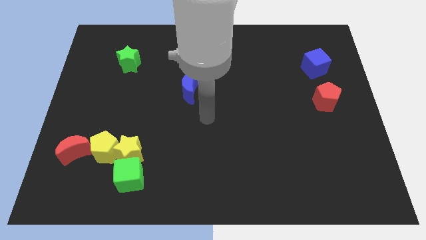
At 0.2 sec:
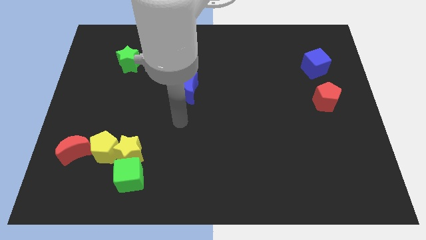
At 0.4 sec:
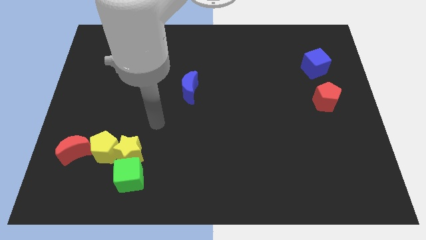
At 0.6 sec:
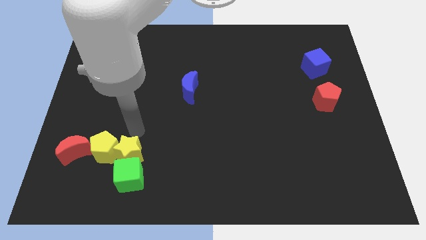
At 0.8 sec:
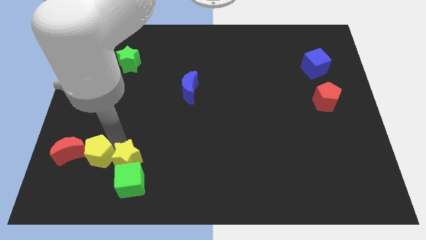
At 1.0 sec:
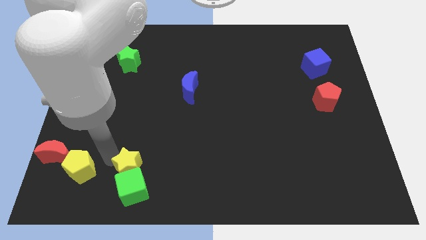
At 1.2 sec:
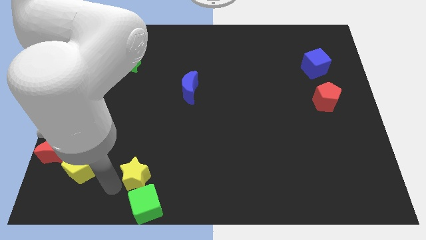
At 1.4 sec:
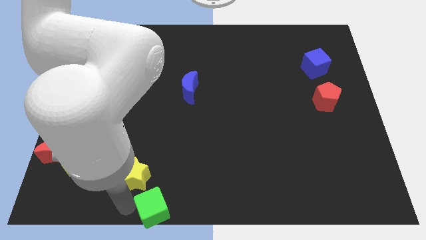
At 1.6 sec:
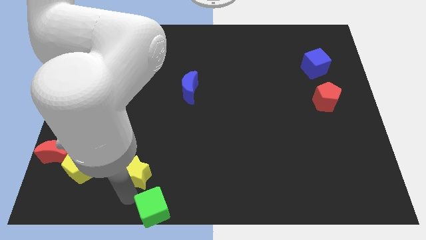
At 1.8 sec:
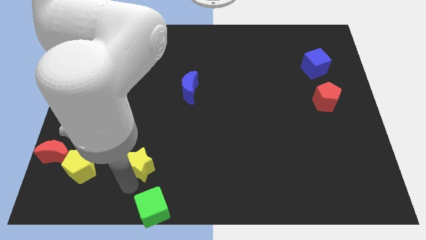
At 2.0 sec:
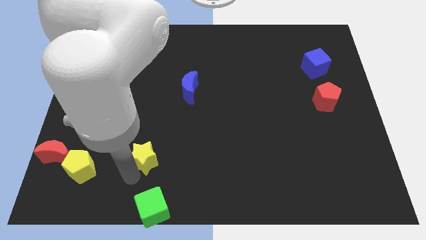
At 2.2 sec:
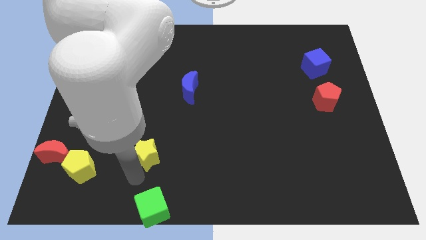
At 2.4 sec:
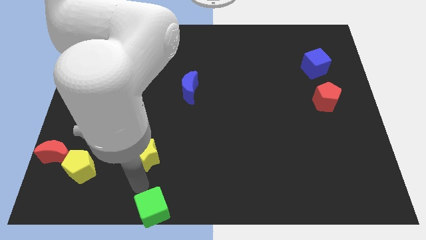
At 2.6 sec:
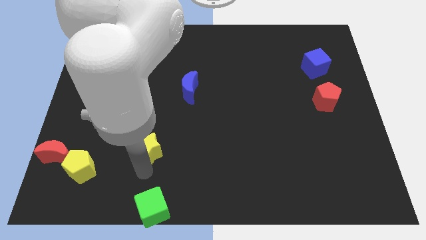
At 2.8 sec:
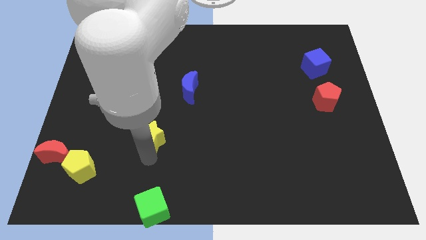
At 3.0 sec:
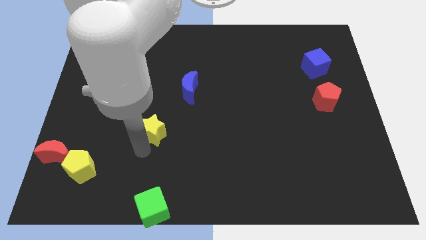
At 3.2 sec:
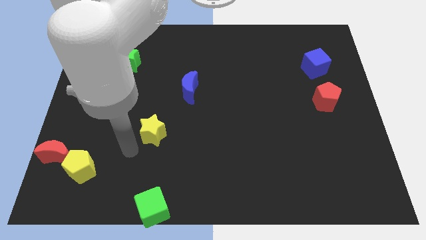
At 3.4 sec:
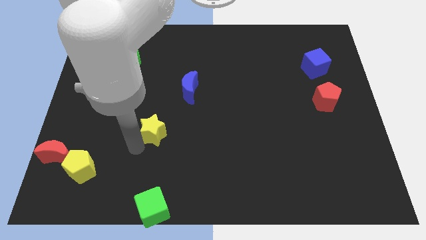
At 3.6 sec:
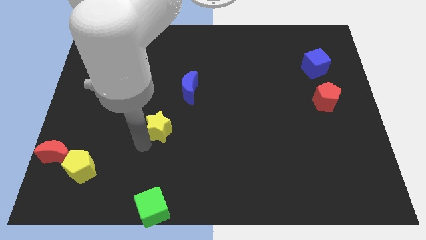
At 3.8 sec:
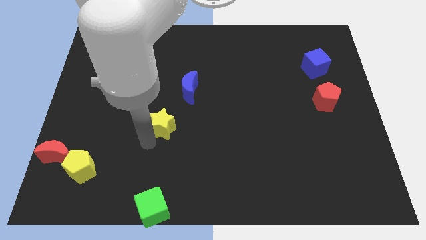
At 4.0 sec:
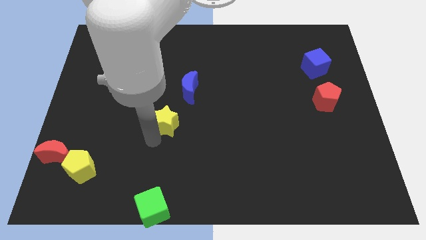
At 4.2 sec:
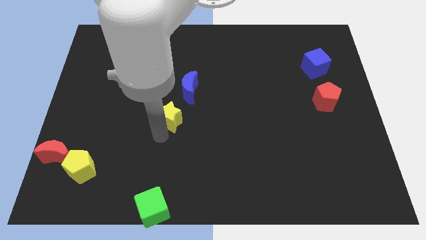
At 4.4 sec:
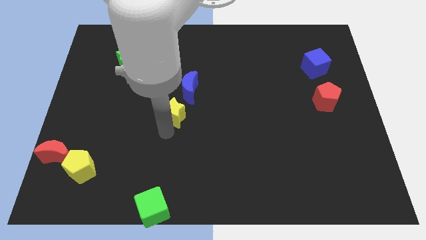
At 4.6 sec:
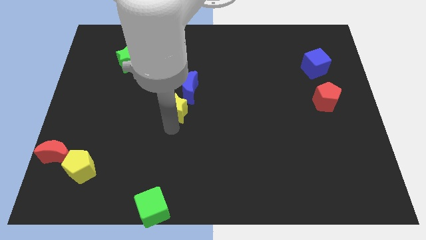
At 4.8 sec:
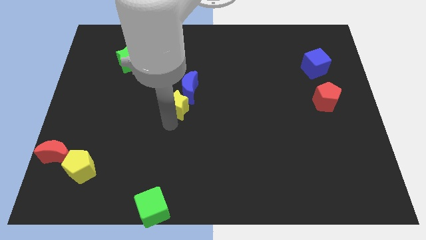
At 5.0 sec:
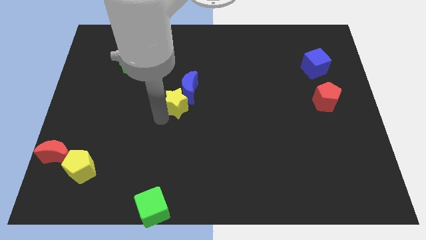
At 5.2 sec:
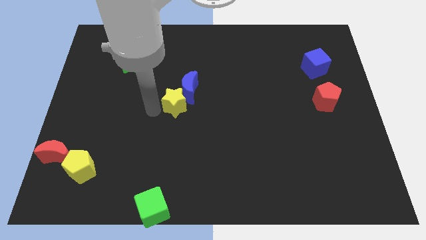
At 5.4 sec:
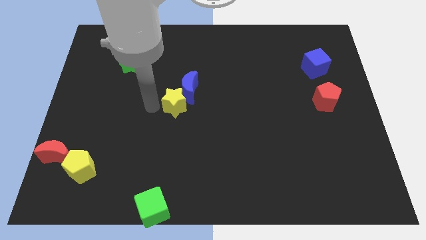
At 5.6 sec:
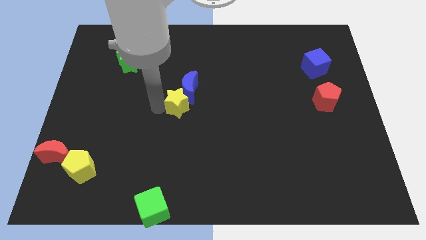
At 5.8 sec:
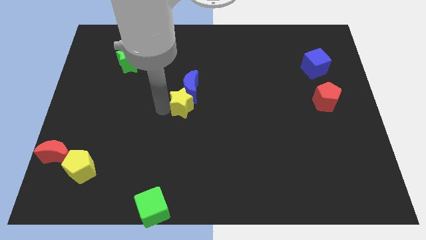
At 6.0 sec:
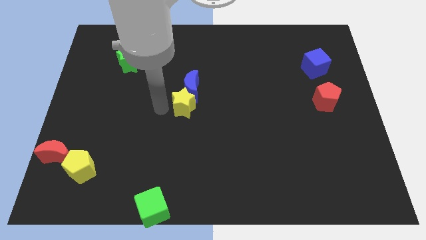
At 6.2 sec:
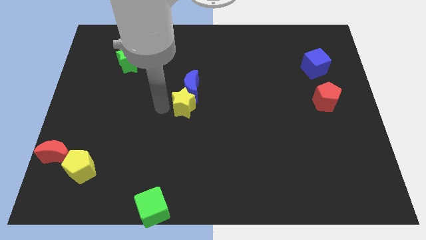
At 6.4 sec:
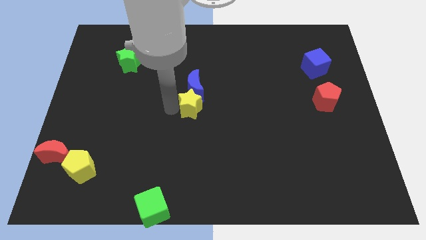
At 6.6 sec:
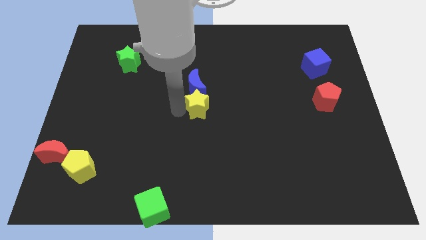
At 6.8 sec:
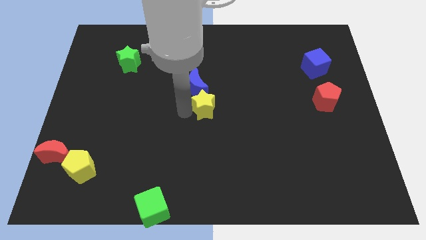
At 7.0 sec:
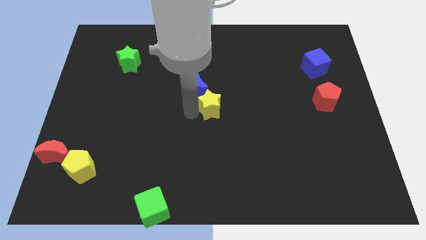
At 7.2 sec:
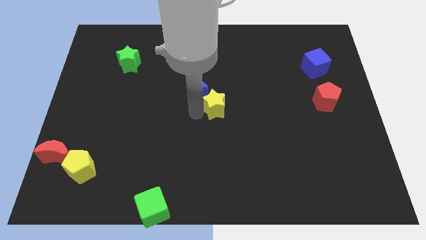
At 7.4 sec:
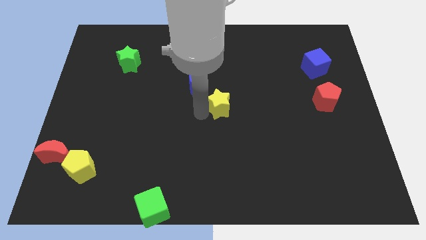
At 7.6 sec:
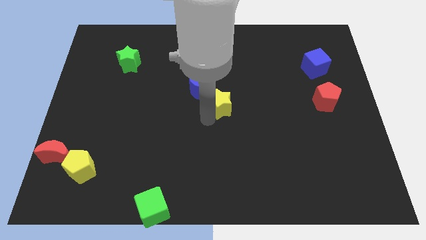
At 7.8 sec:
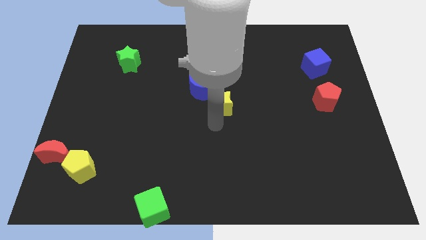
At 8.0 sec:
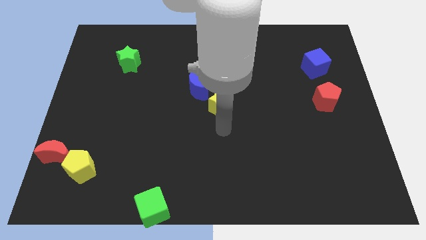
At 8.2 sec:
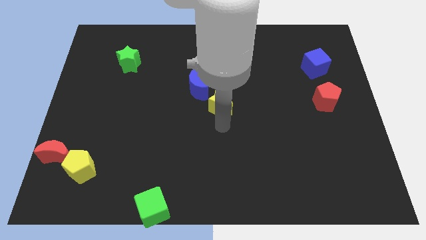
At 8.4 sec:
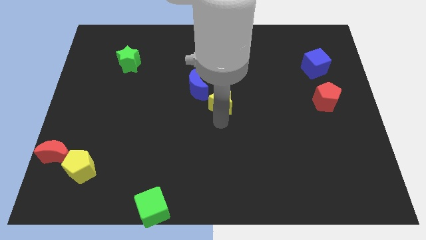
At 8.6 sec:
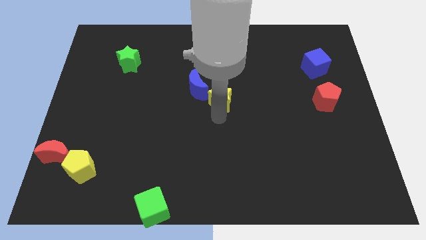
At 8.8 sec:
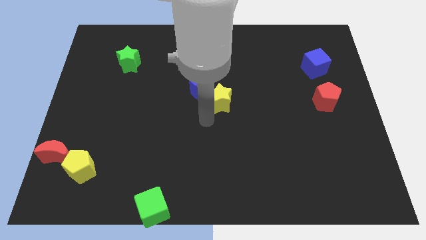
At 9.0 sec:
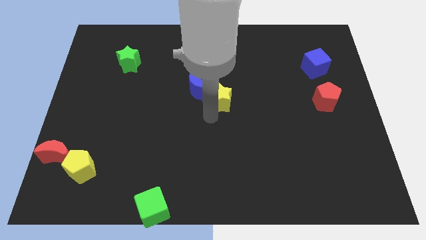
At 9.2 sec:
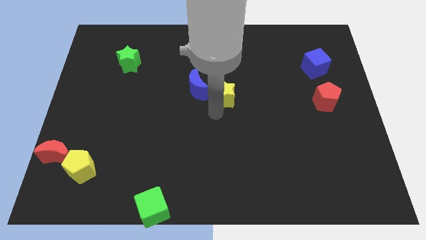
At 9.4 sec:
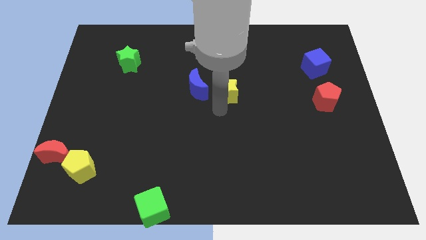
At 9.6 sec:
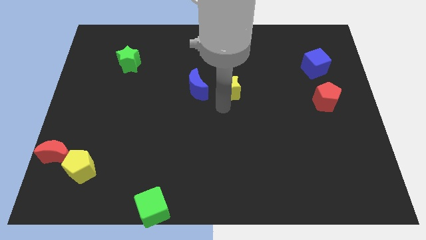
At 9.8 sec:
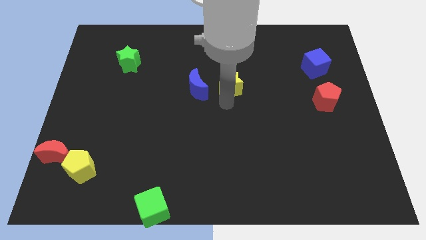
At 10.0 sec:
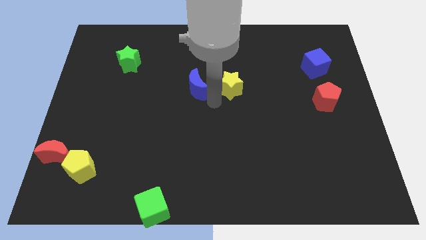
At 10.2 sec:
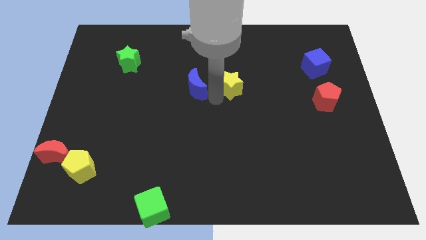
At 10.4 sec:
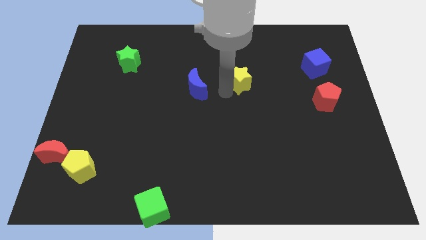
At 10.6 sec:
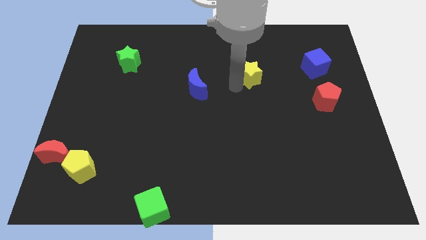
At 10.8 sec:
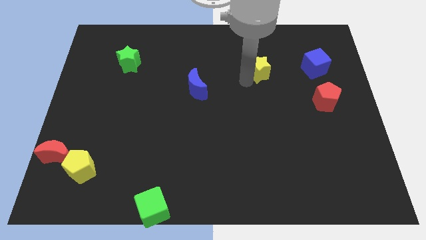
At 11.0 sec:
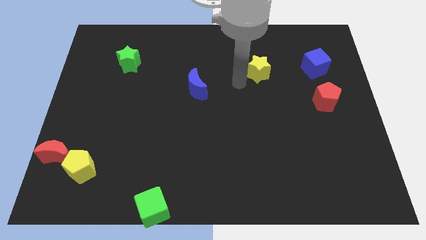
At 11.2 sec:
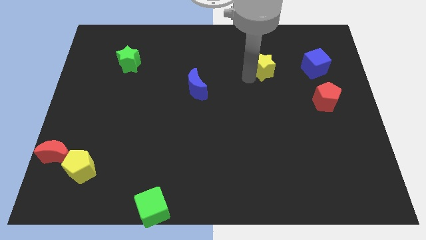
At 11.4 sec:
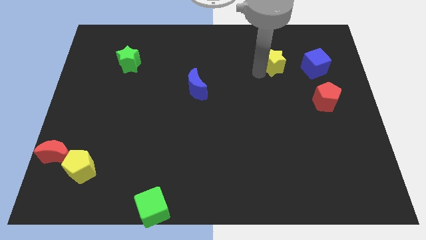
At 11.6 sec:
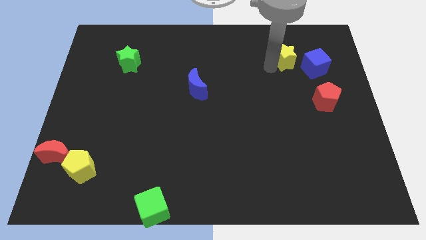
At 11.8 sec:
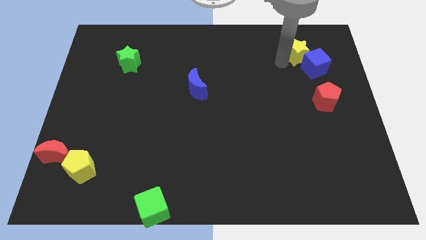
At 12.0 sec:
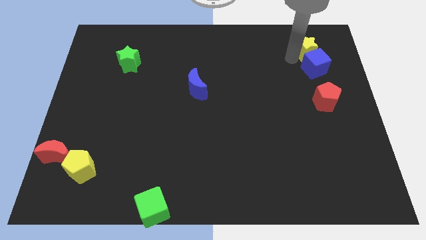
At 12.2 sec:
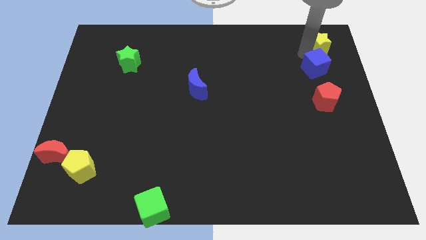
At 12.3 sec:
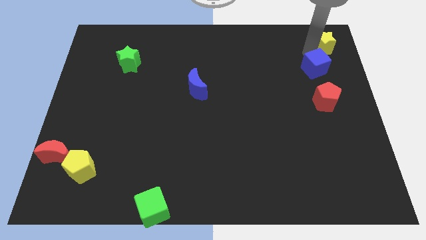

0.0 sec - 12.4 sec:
push the yellow star to the upper right corner
